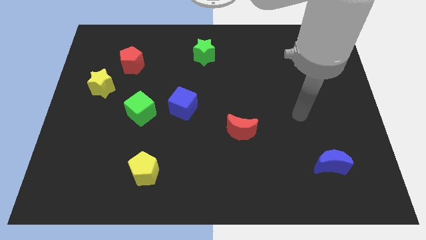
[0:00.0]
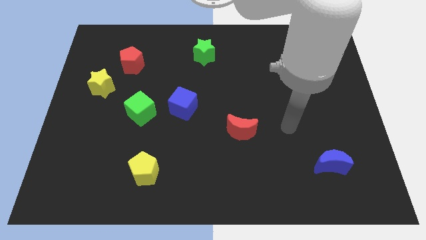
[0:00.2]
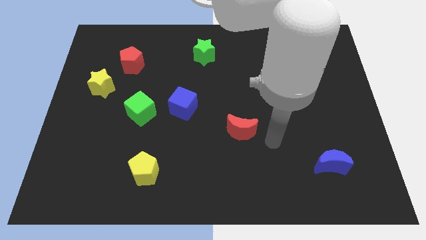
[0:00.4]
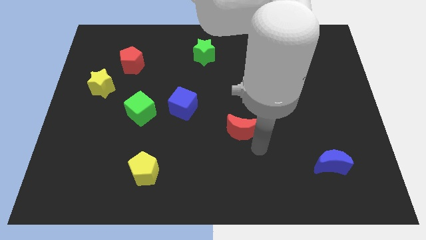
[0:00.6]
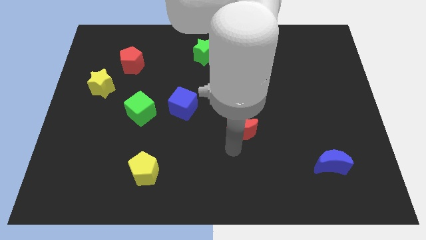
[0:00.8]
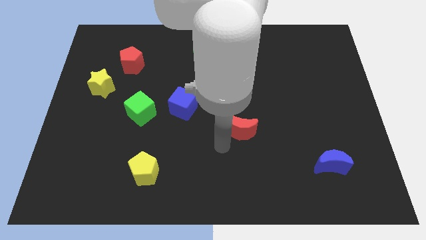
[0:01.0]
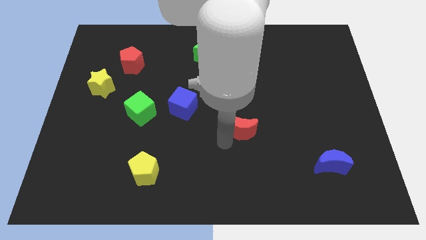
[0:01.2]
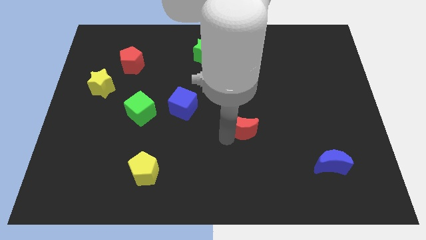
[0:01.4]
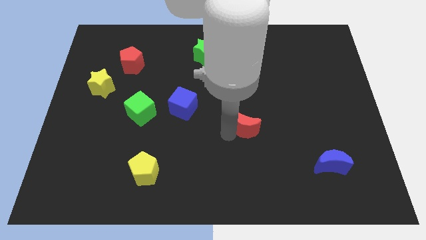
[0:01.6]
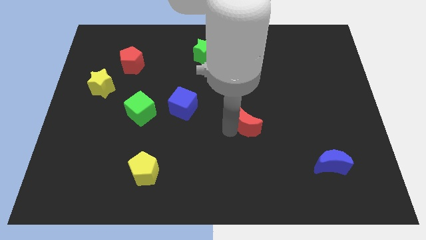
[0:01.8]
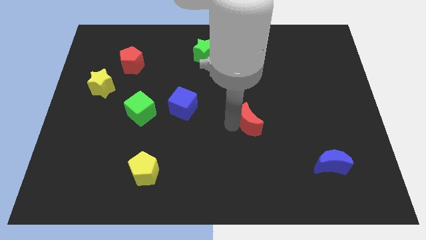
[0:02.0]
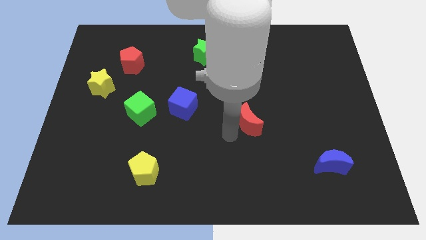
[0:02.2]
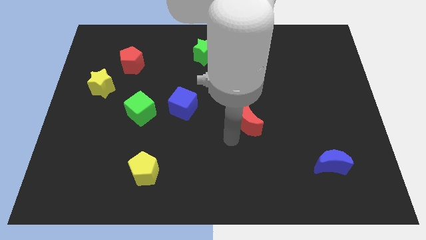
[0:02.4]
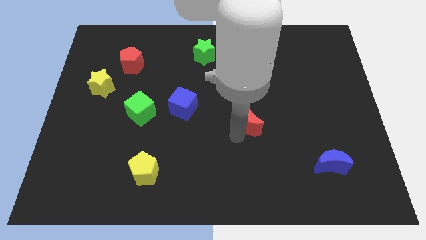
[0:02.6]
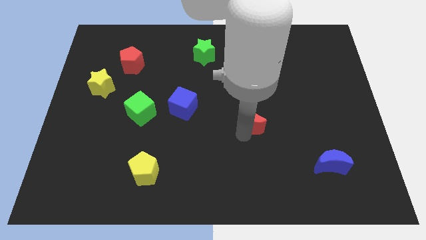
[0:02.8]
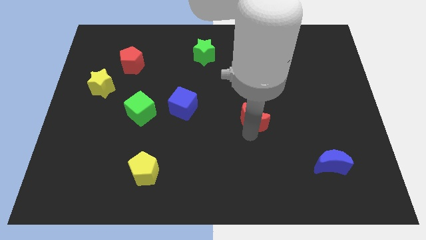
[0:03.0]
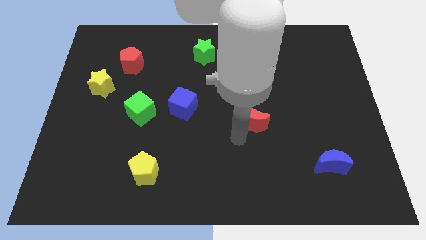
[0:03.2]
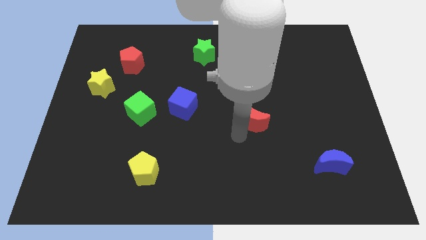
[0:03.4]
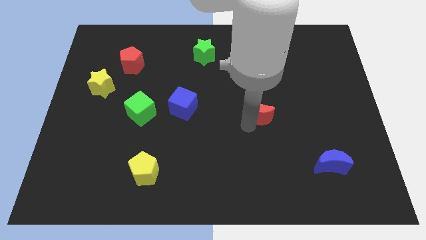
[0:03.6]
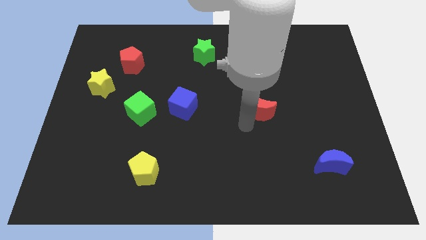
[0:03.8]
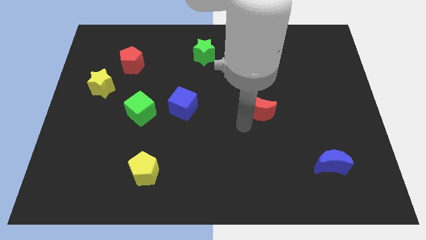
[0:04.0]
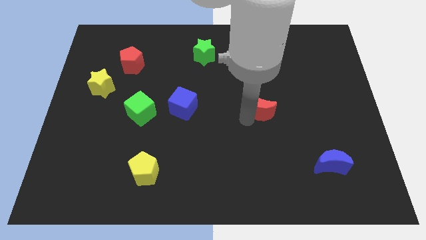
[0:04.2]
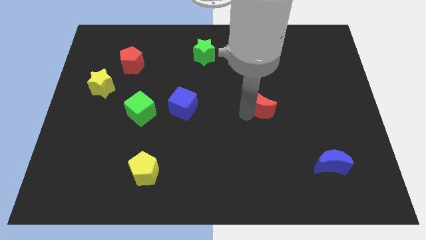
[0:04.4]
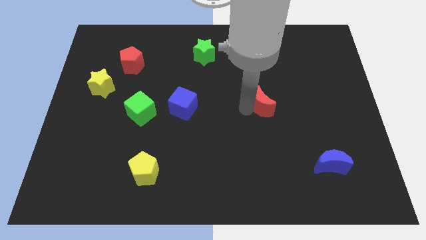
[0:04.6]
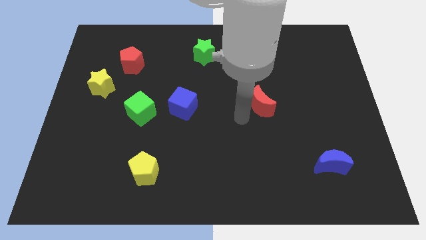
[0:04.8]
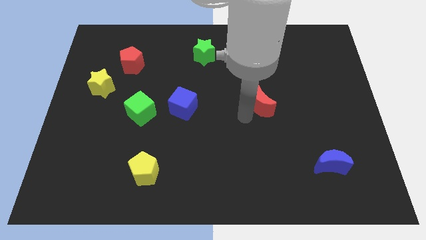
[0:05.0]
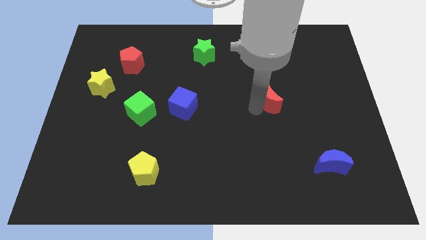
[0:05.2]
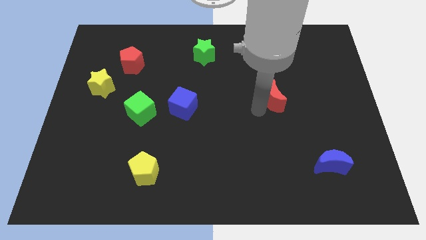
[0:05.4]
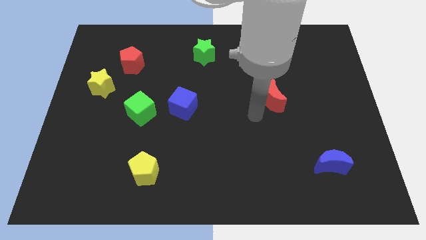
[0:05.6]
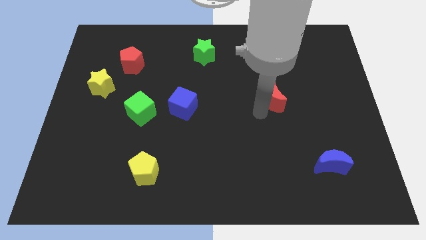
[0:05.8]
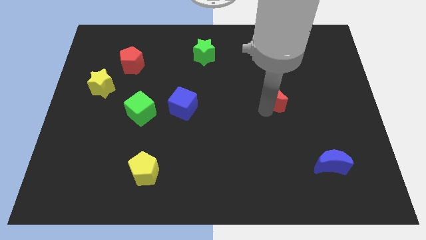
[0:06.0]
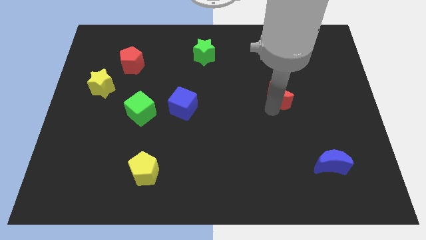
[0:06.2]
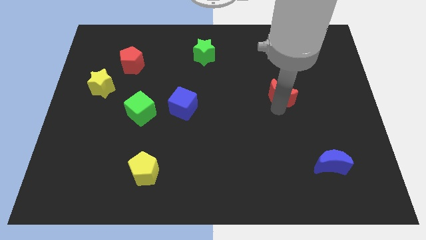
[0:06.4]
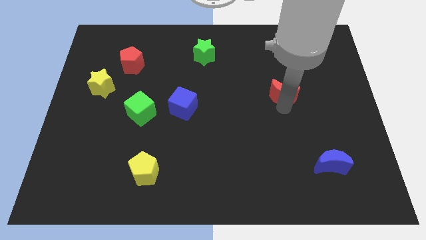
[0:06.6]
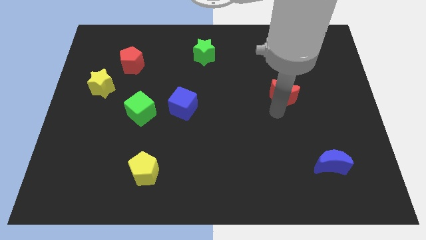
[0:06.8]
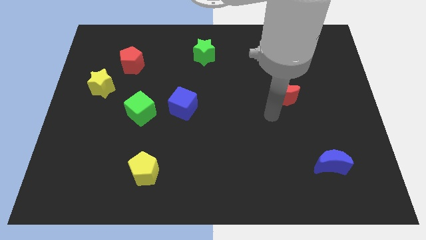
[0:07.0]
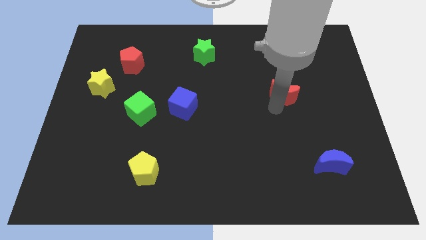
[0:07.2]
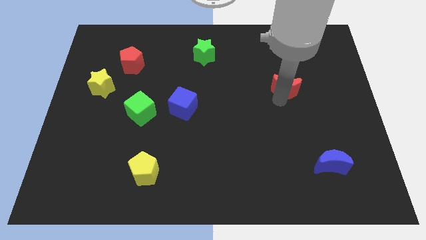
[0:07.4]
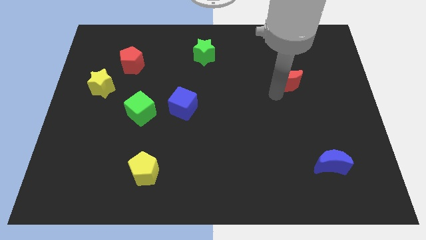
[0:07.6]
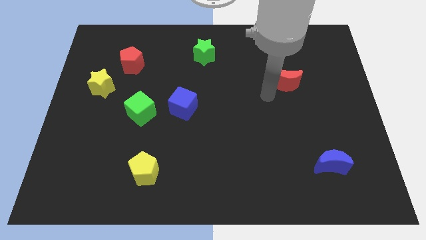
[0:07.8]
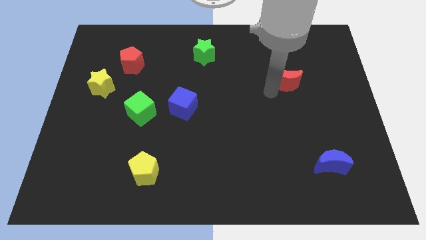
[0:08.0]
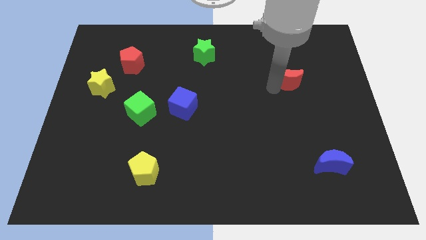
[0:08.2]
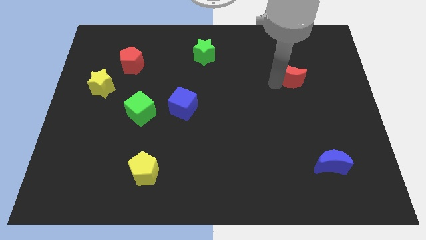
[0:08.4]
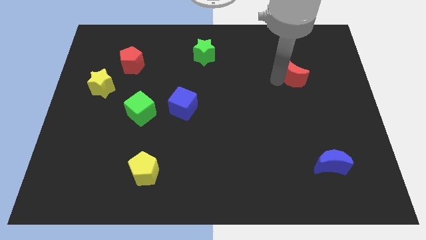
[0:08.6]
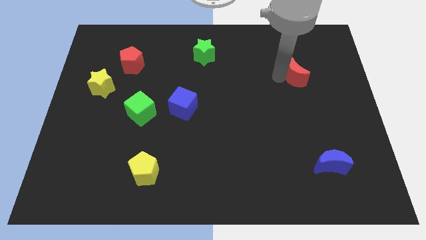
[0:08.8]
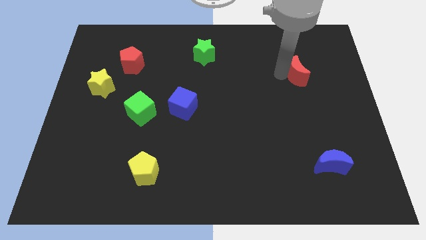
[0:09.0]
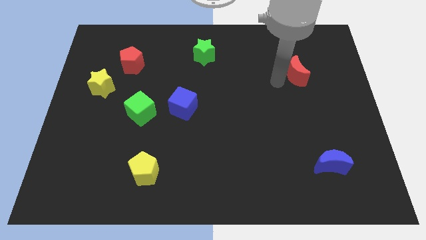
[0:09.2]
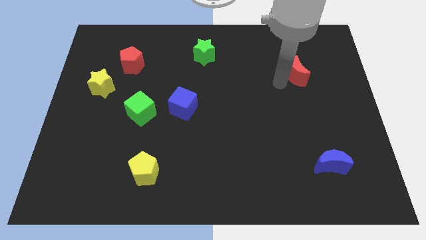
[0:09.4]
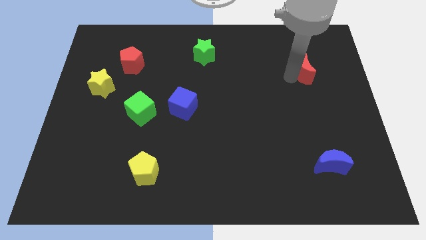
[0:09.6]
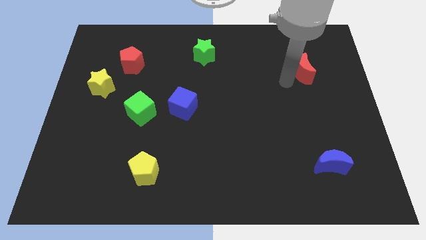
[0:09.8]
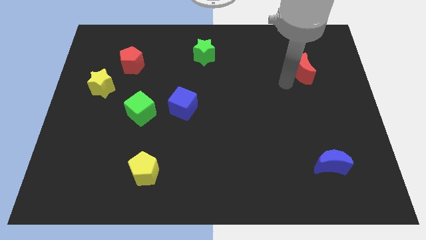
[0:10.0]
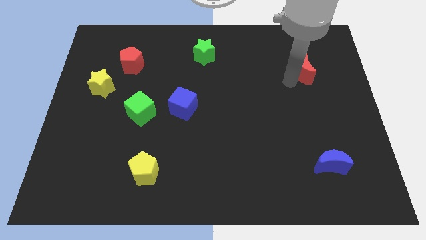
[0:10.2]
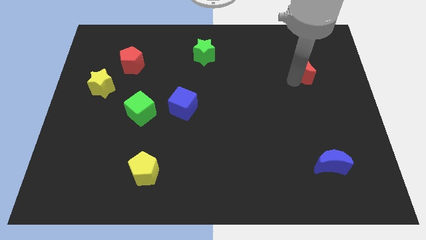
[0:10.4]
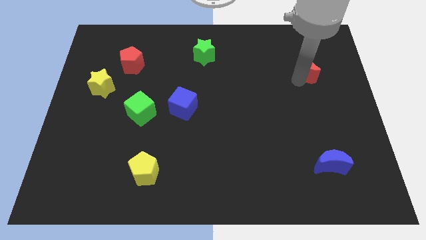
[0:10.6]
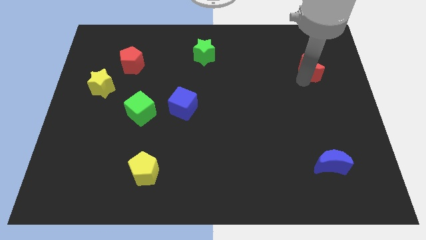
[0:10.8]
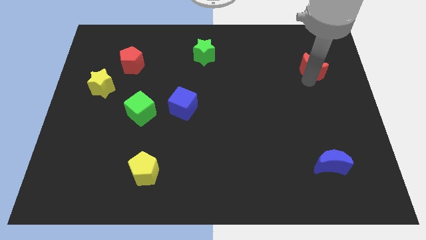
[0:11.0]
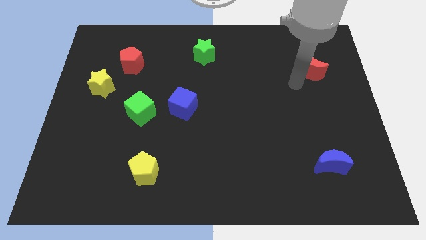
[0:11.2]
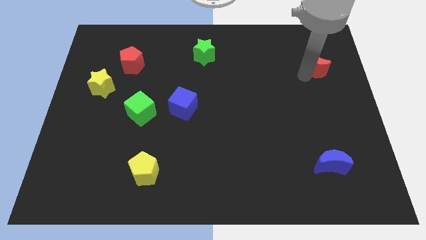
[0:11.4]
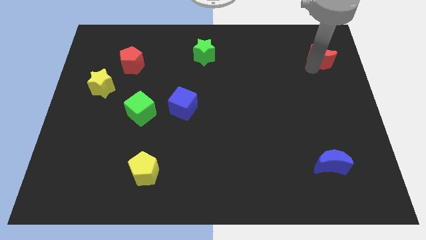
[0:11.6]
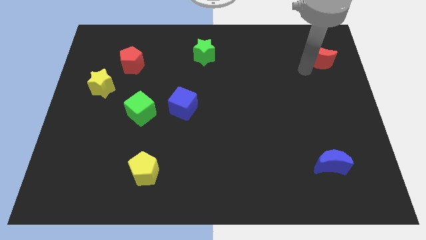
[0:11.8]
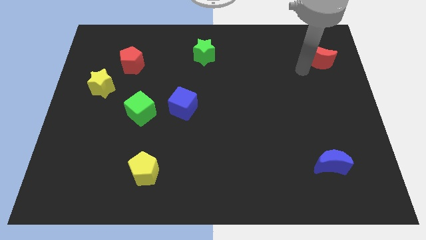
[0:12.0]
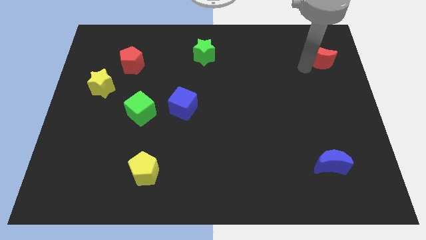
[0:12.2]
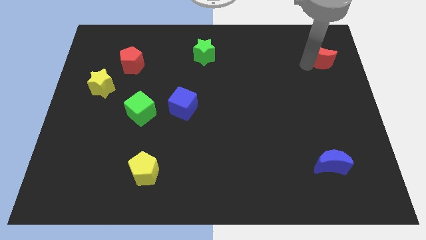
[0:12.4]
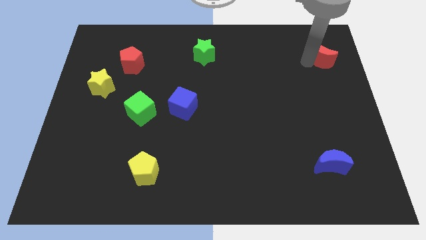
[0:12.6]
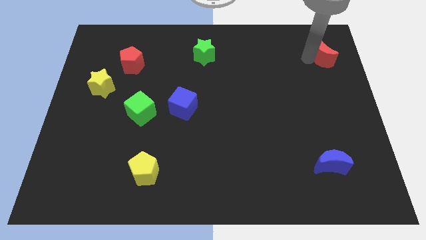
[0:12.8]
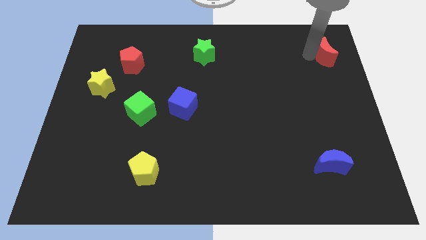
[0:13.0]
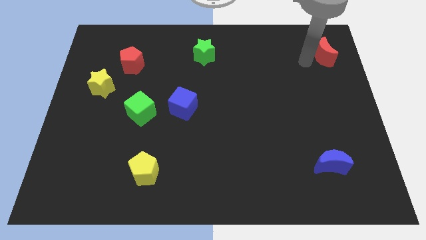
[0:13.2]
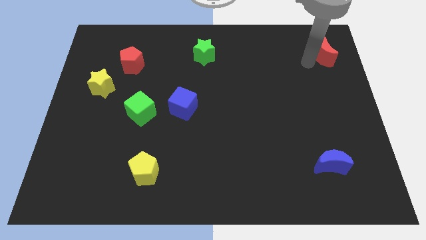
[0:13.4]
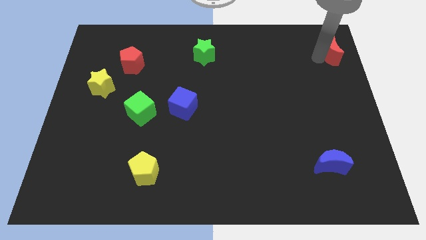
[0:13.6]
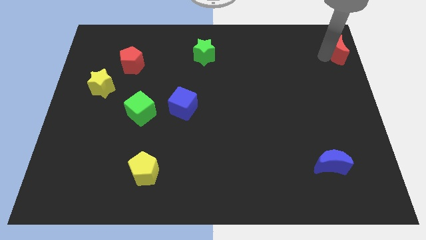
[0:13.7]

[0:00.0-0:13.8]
push the red moon to the top right corner
